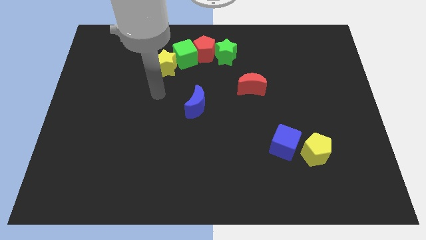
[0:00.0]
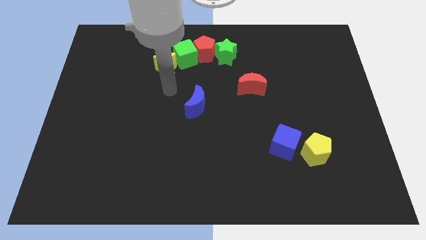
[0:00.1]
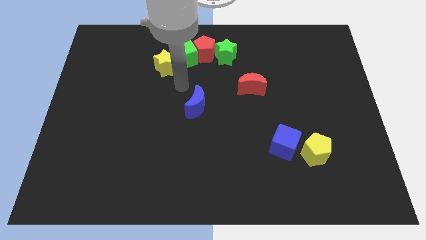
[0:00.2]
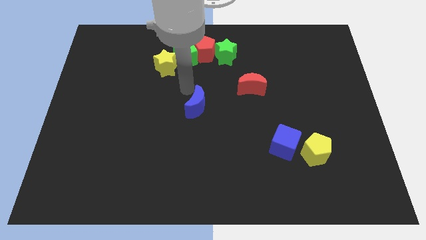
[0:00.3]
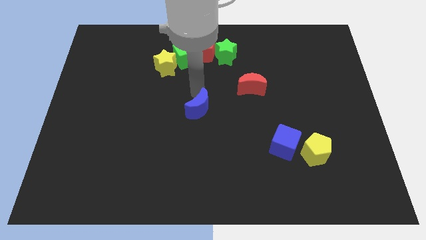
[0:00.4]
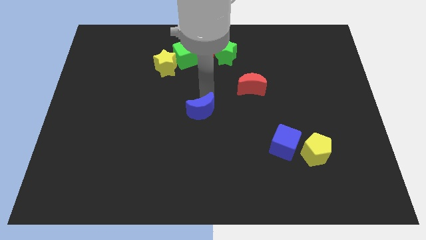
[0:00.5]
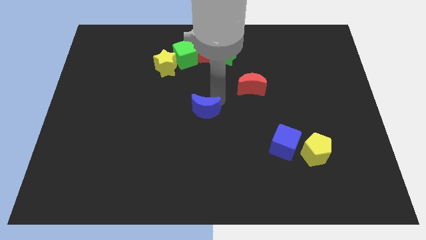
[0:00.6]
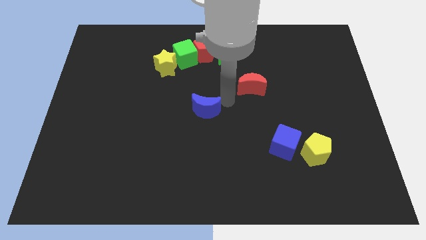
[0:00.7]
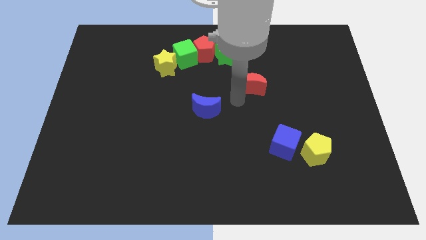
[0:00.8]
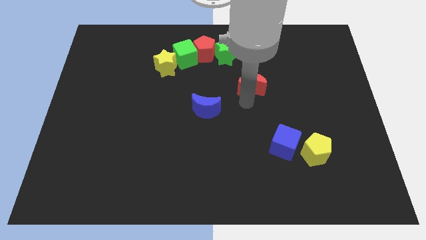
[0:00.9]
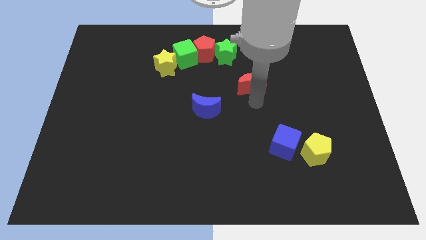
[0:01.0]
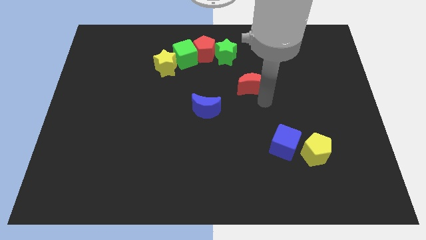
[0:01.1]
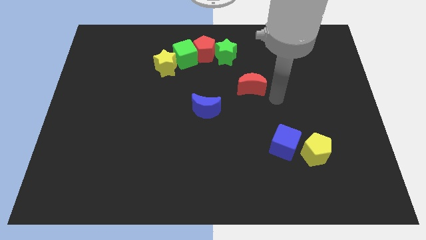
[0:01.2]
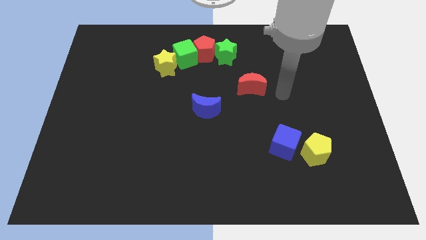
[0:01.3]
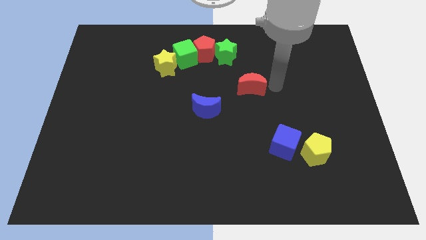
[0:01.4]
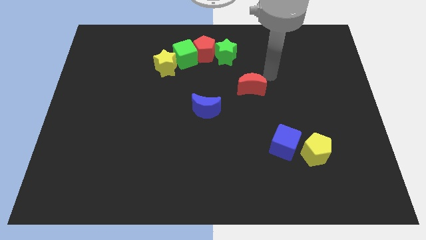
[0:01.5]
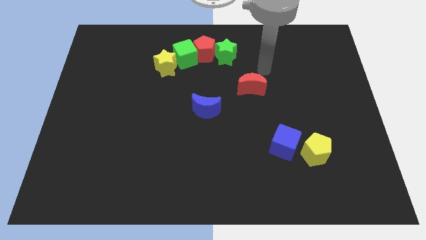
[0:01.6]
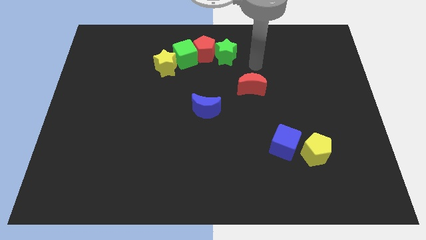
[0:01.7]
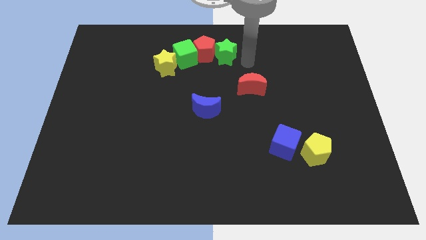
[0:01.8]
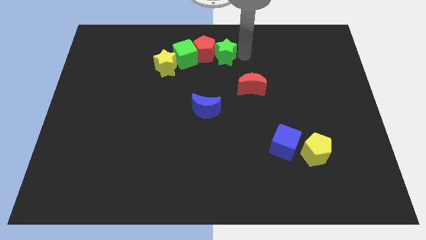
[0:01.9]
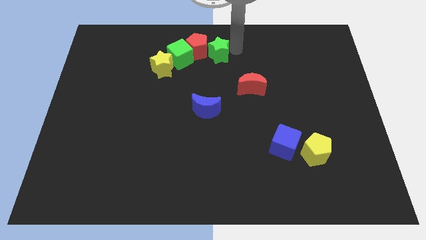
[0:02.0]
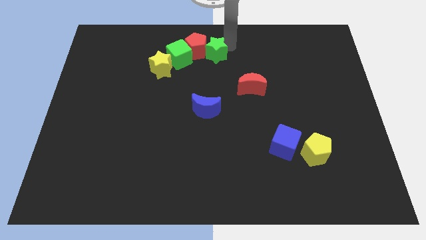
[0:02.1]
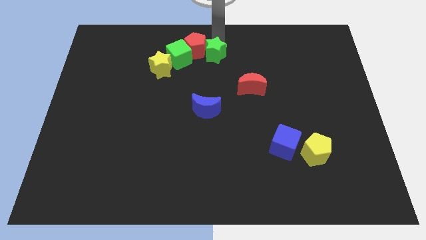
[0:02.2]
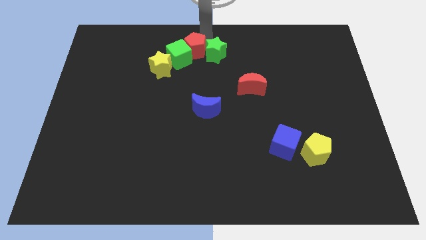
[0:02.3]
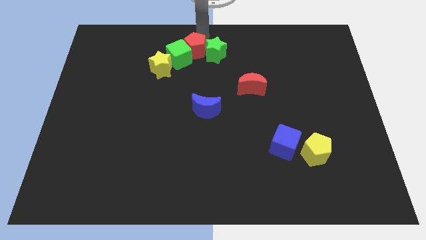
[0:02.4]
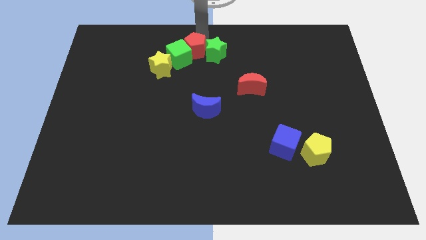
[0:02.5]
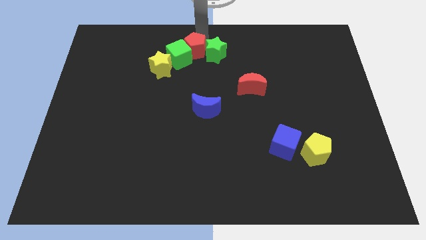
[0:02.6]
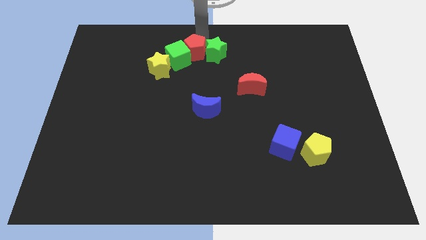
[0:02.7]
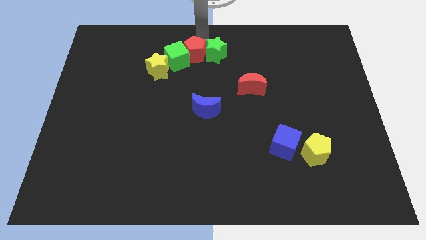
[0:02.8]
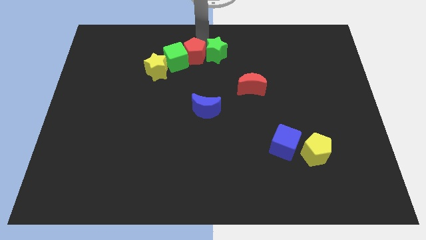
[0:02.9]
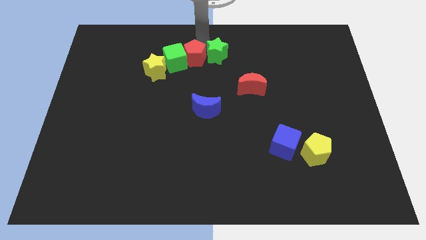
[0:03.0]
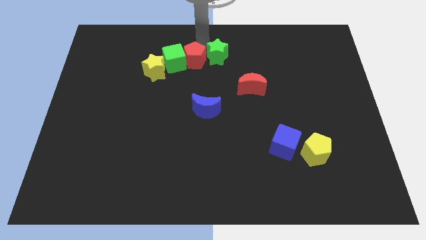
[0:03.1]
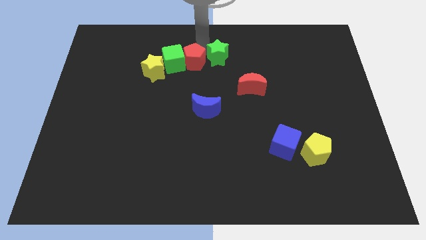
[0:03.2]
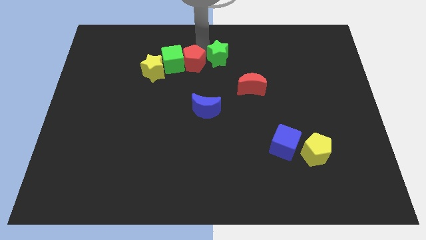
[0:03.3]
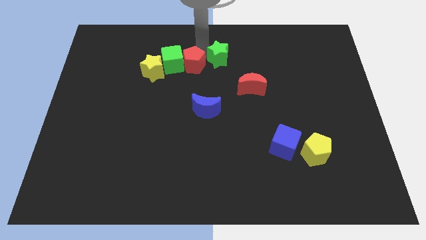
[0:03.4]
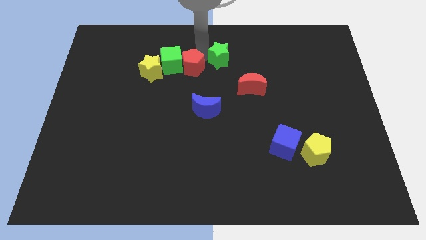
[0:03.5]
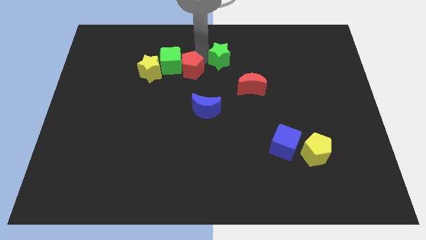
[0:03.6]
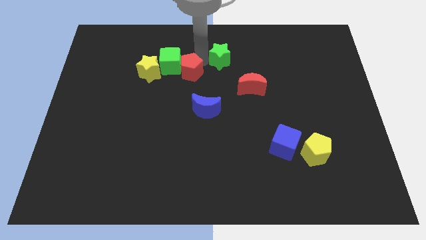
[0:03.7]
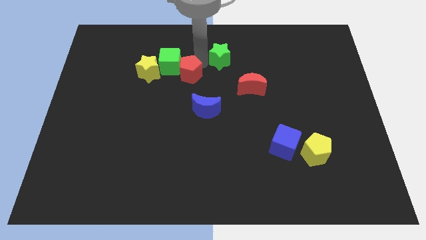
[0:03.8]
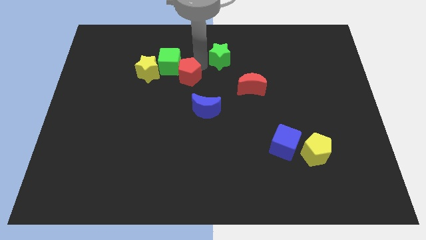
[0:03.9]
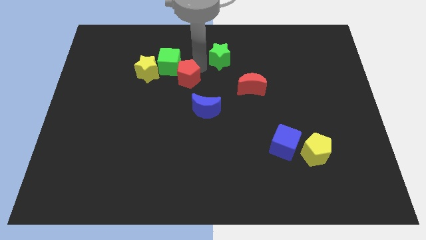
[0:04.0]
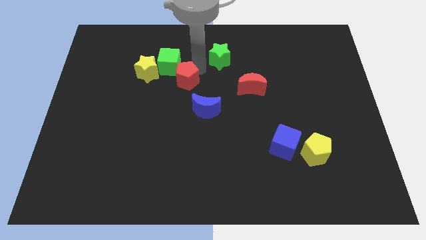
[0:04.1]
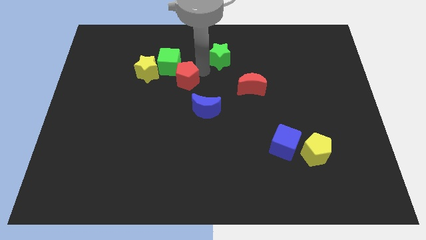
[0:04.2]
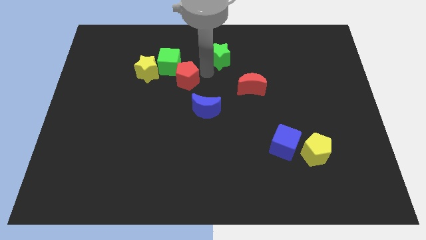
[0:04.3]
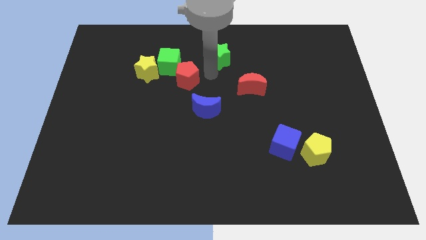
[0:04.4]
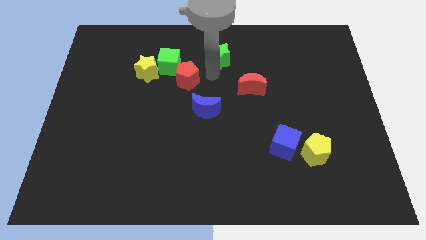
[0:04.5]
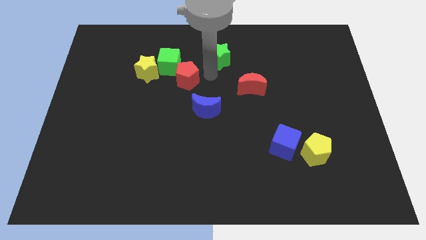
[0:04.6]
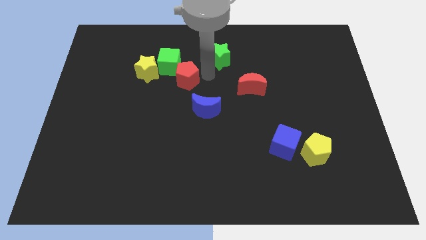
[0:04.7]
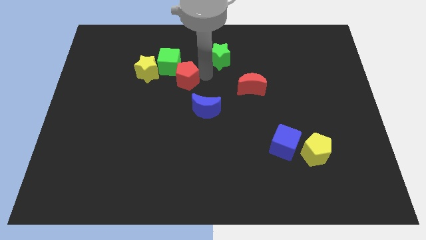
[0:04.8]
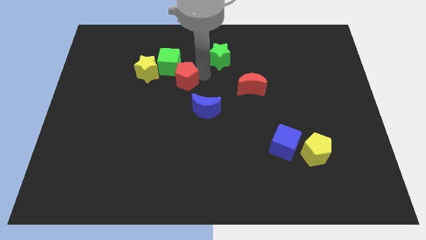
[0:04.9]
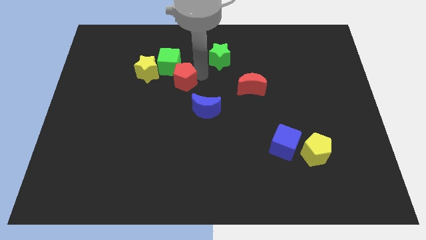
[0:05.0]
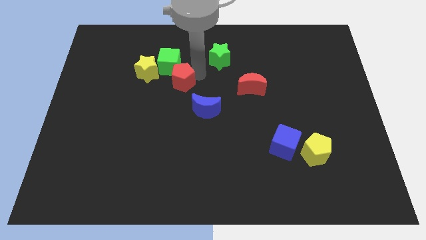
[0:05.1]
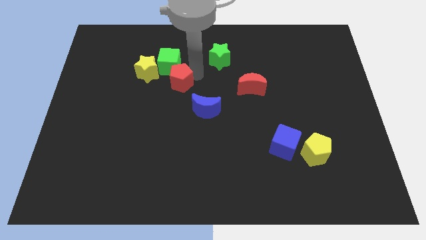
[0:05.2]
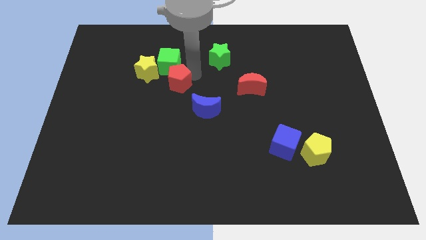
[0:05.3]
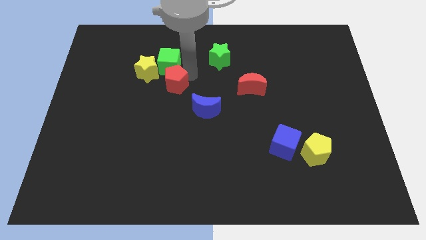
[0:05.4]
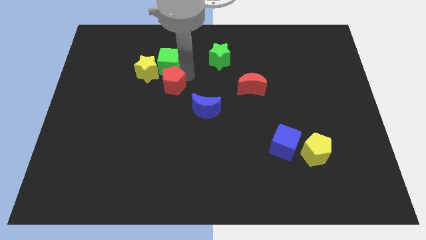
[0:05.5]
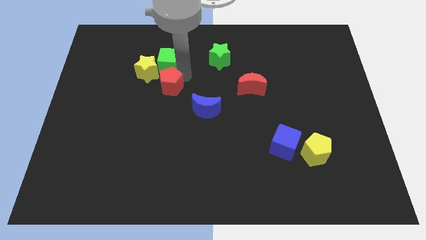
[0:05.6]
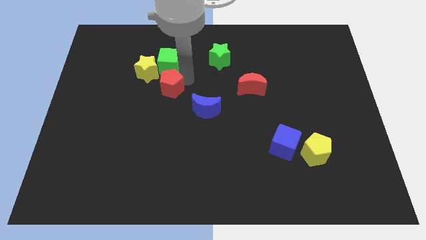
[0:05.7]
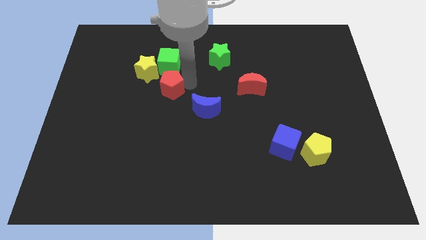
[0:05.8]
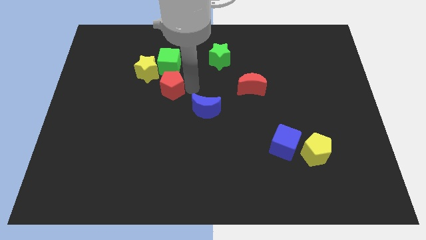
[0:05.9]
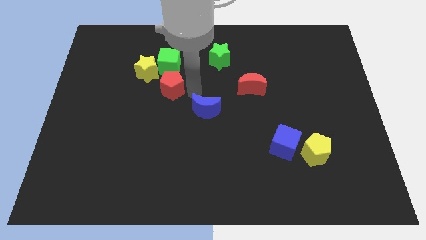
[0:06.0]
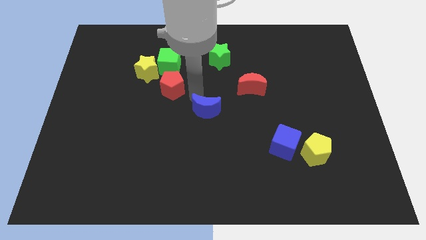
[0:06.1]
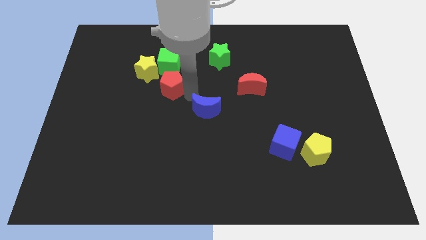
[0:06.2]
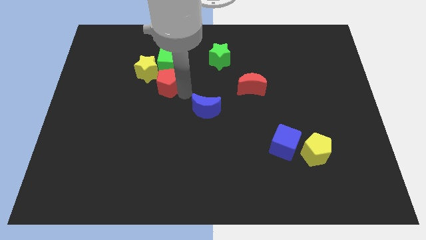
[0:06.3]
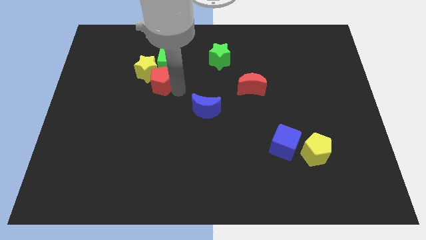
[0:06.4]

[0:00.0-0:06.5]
push the red pentagon to the bottom left side of the green cube
